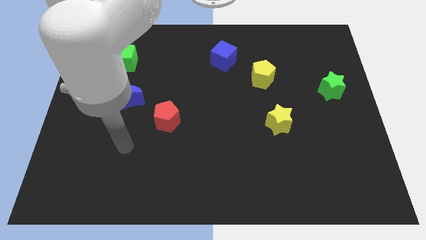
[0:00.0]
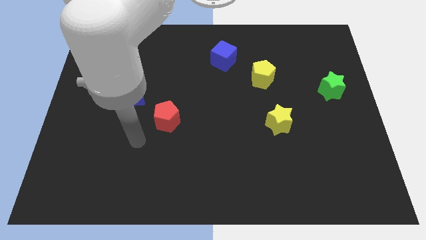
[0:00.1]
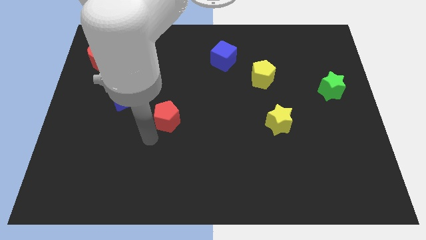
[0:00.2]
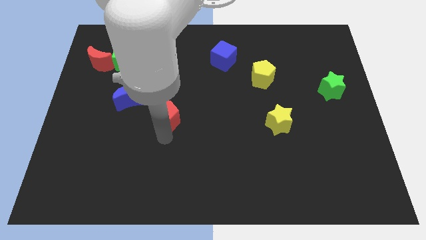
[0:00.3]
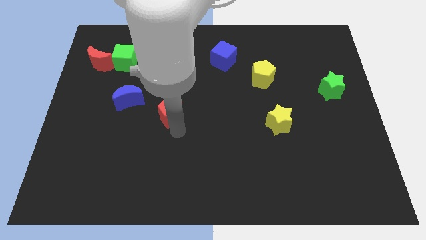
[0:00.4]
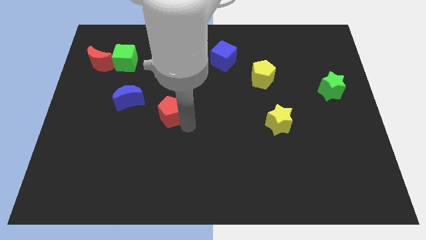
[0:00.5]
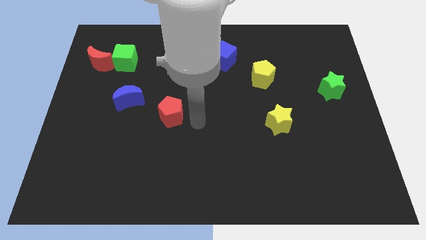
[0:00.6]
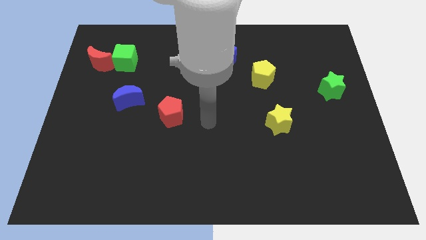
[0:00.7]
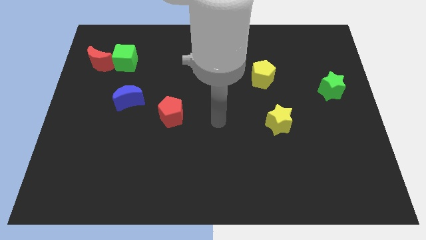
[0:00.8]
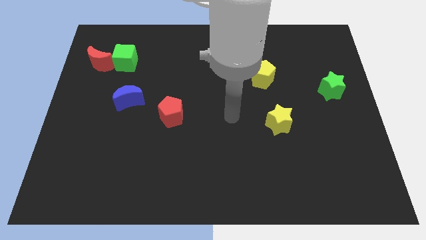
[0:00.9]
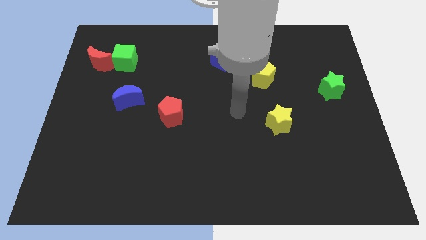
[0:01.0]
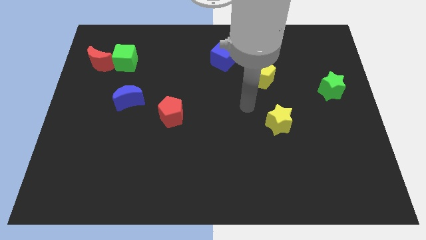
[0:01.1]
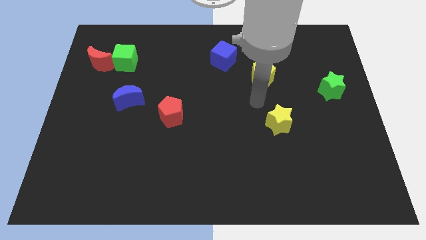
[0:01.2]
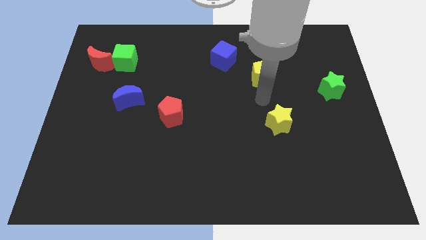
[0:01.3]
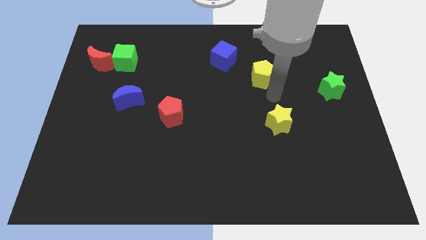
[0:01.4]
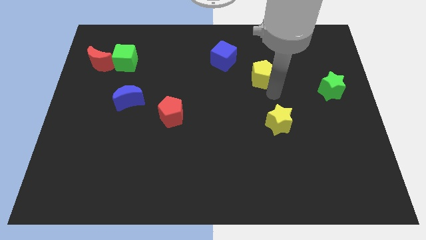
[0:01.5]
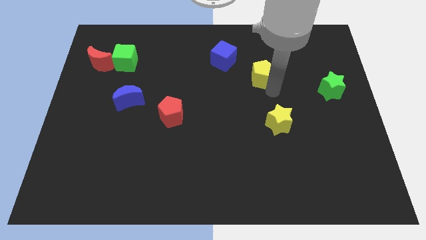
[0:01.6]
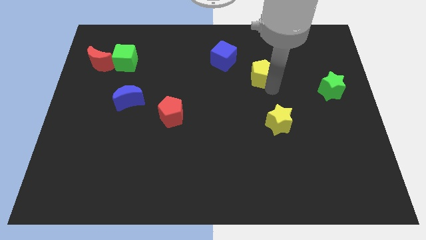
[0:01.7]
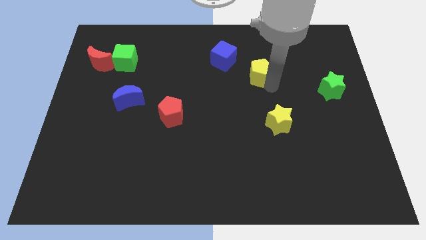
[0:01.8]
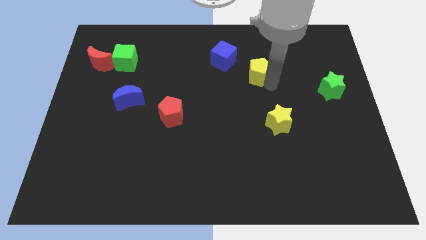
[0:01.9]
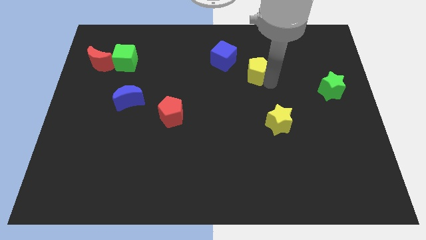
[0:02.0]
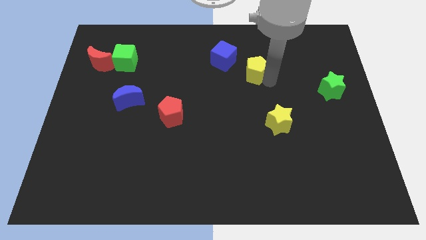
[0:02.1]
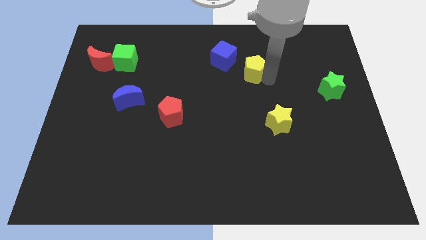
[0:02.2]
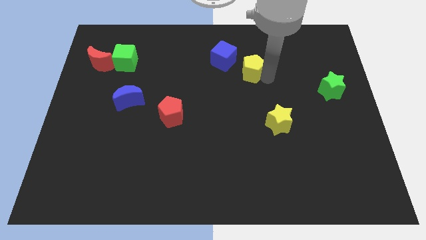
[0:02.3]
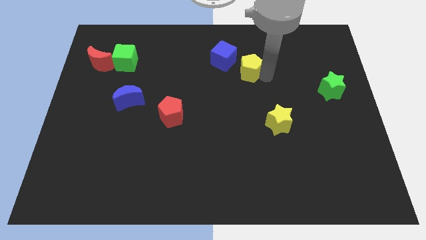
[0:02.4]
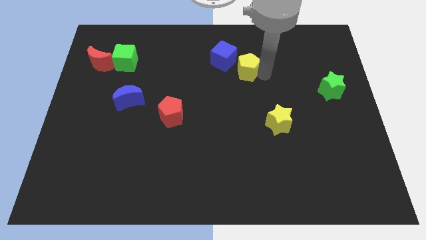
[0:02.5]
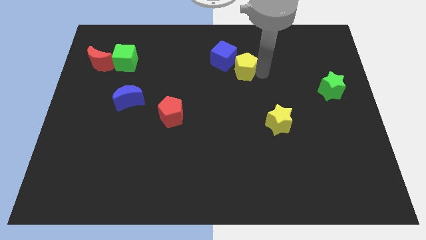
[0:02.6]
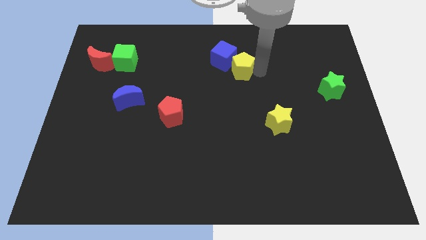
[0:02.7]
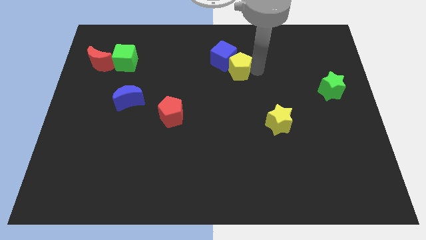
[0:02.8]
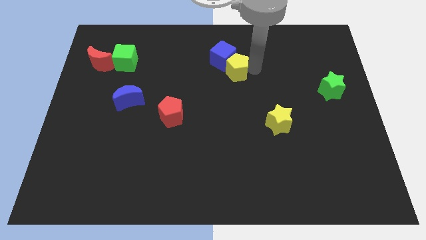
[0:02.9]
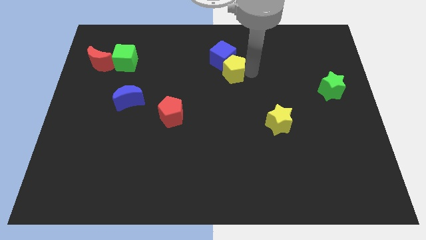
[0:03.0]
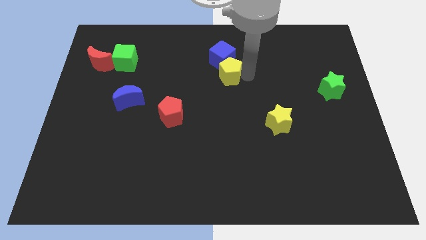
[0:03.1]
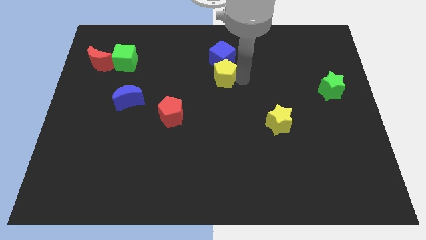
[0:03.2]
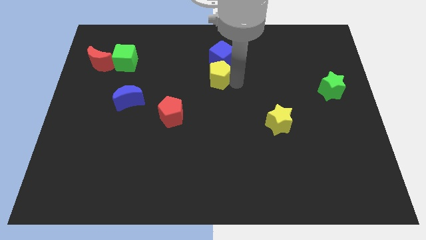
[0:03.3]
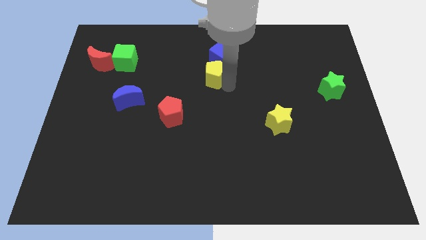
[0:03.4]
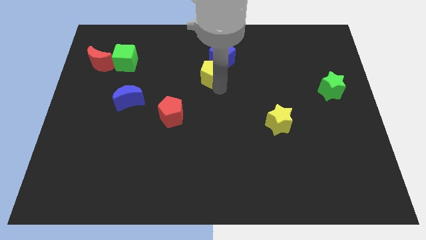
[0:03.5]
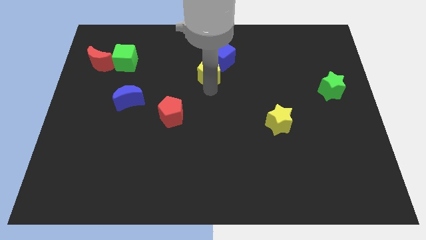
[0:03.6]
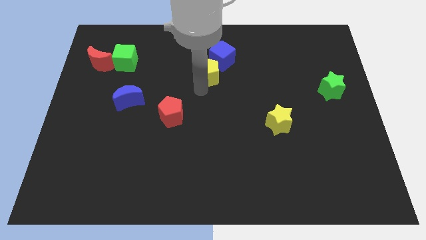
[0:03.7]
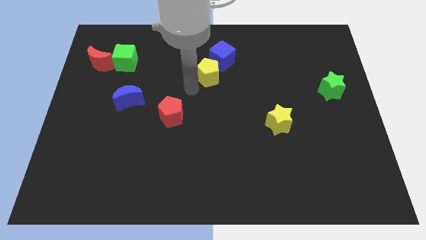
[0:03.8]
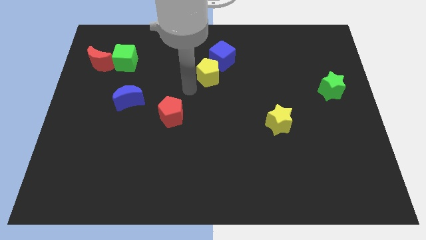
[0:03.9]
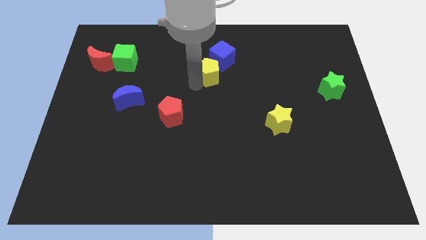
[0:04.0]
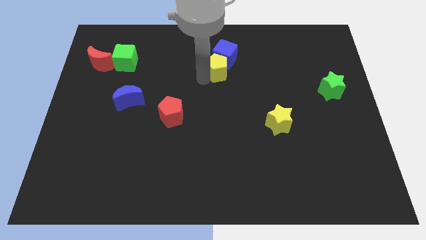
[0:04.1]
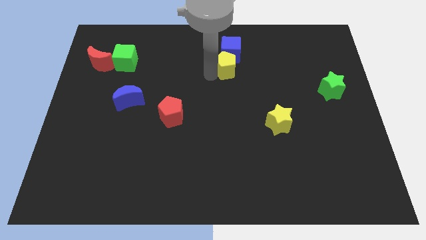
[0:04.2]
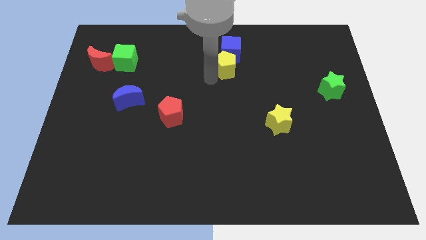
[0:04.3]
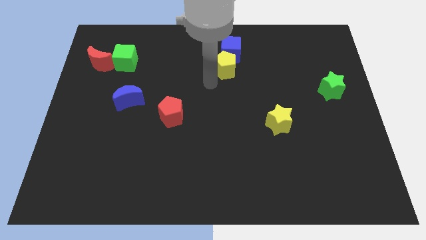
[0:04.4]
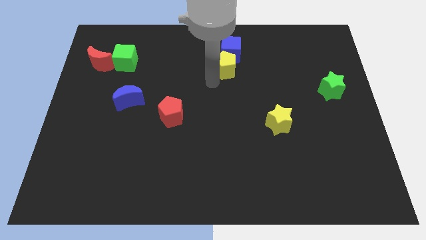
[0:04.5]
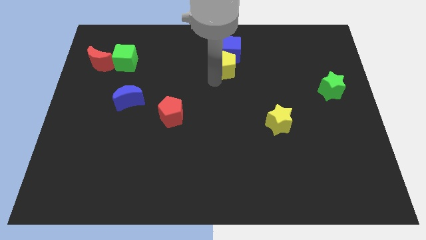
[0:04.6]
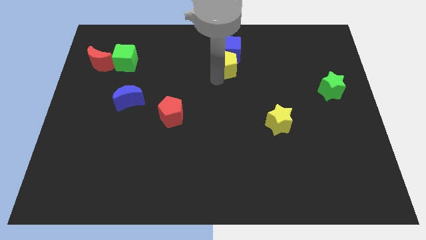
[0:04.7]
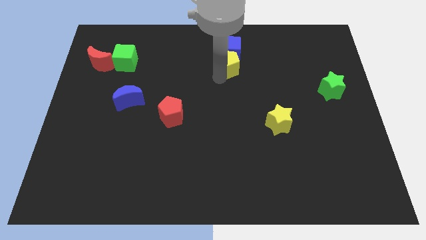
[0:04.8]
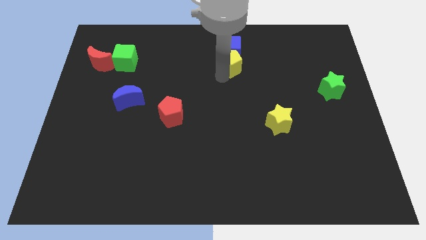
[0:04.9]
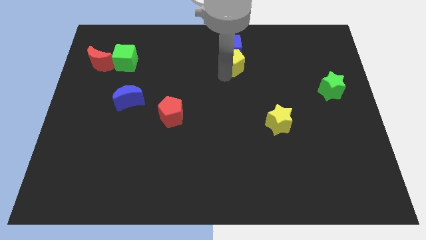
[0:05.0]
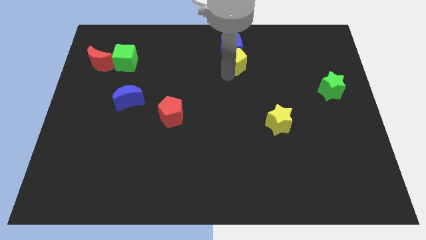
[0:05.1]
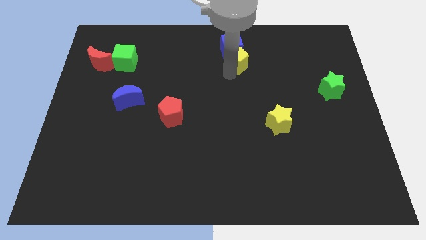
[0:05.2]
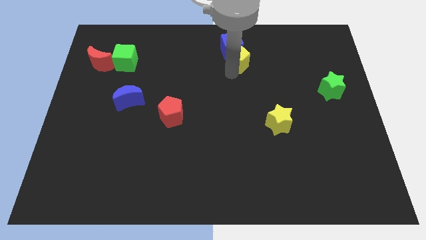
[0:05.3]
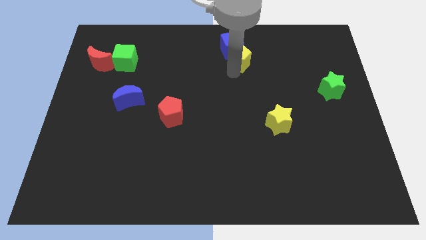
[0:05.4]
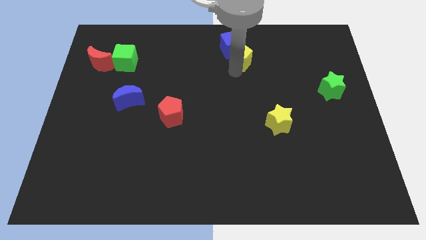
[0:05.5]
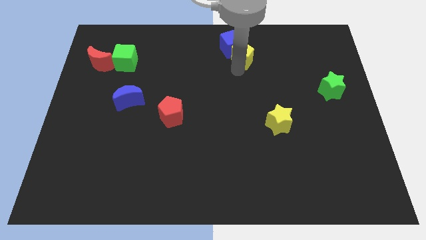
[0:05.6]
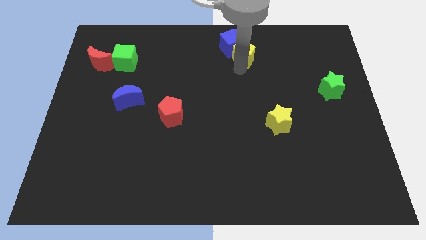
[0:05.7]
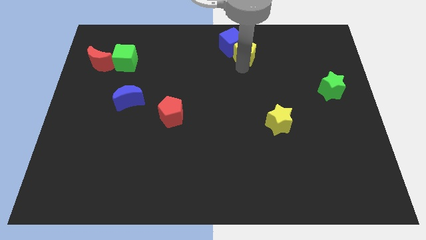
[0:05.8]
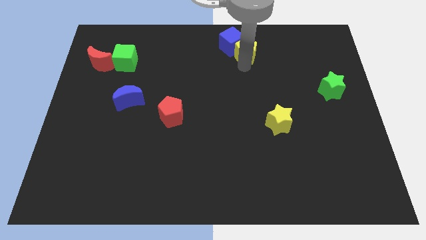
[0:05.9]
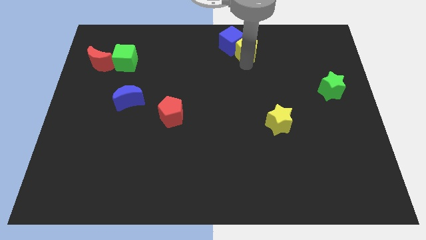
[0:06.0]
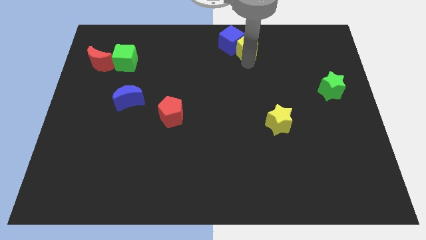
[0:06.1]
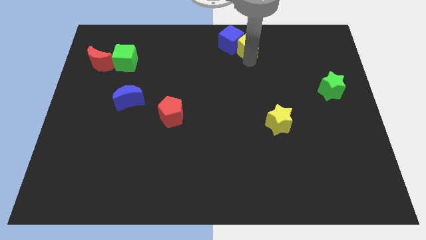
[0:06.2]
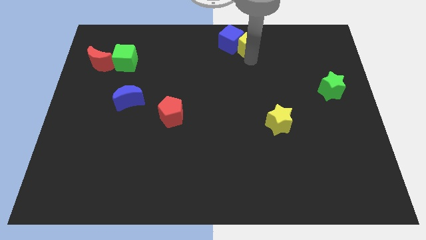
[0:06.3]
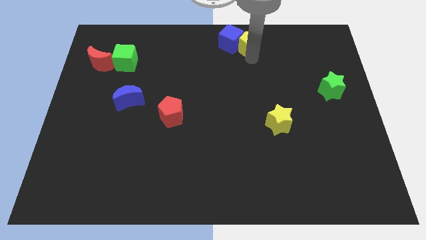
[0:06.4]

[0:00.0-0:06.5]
push the yellow pentagon to the towards your base

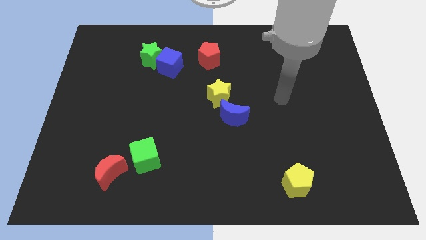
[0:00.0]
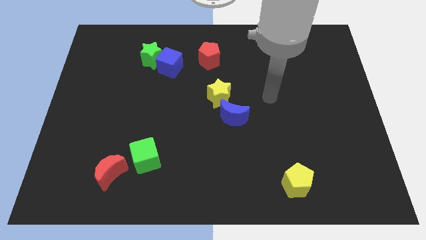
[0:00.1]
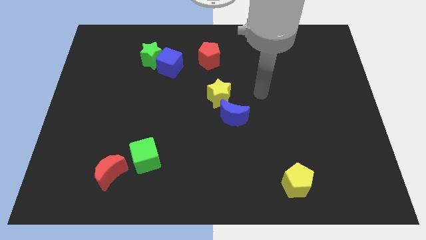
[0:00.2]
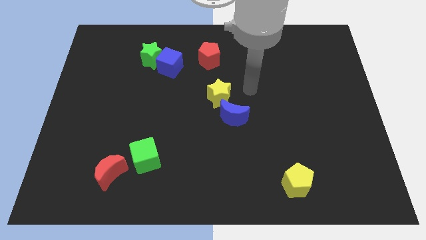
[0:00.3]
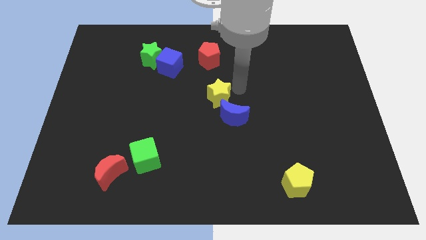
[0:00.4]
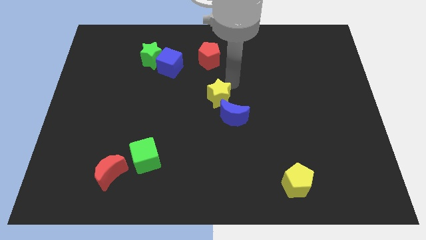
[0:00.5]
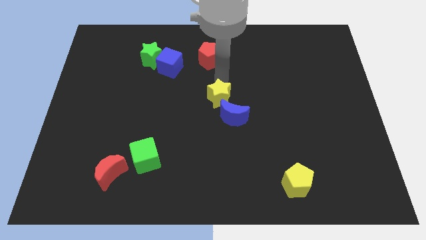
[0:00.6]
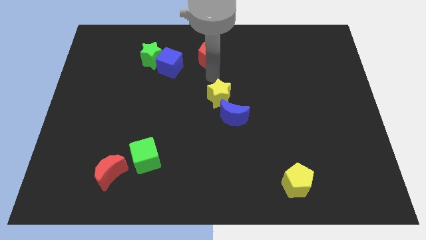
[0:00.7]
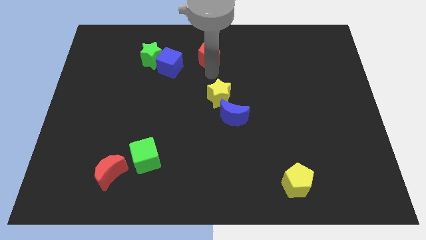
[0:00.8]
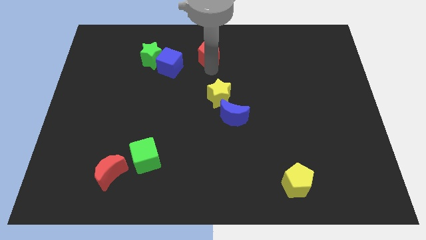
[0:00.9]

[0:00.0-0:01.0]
put the red pentagon to the top side
